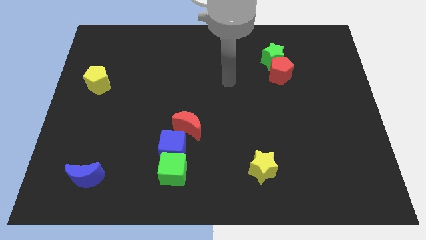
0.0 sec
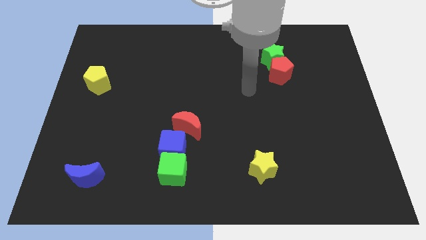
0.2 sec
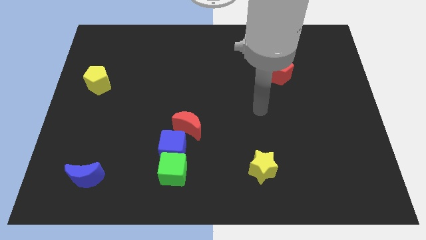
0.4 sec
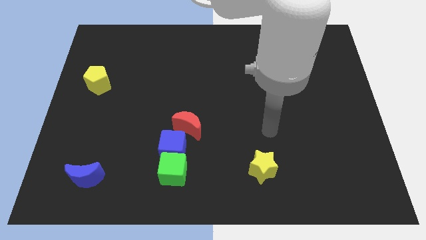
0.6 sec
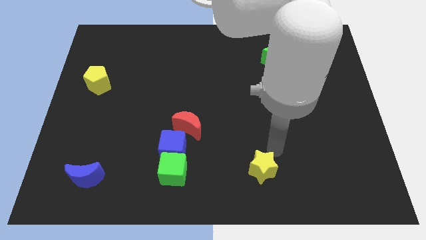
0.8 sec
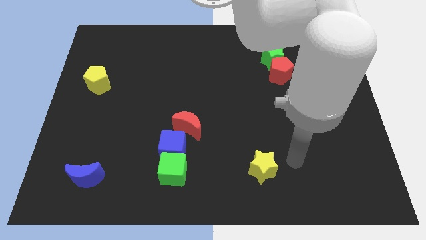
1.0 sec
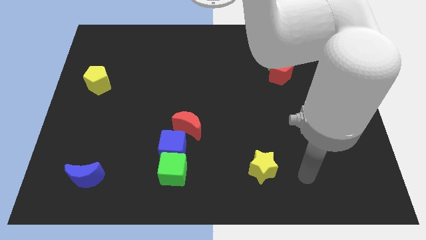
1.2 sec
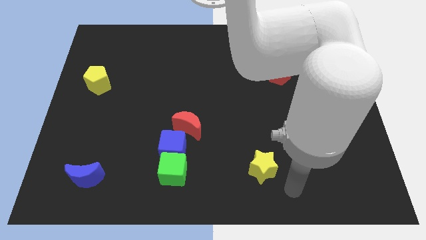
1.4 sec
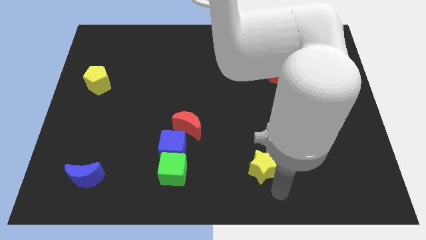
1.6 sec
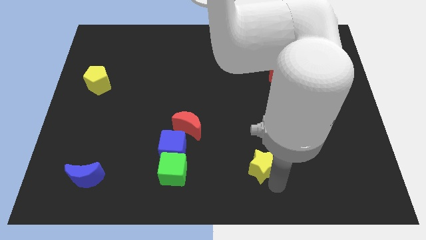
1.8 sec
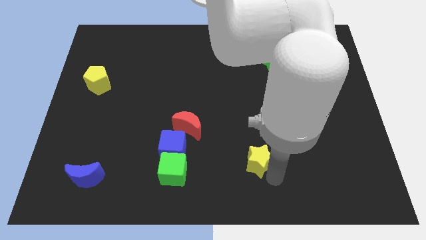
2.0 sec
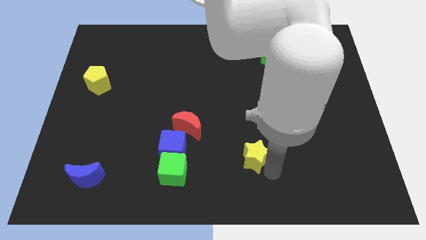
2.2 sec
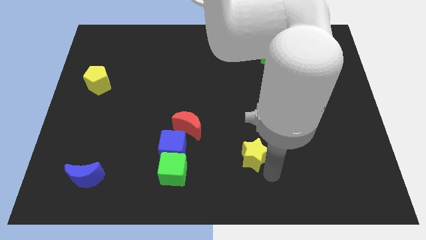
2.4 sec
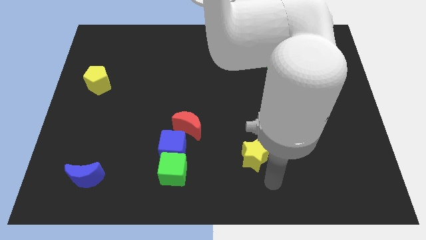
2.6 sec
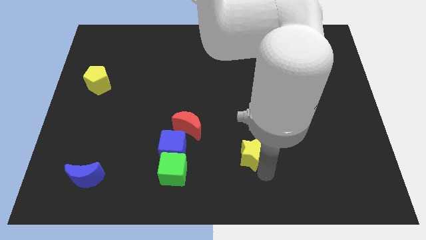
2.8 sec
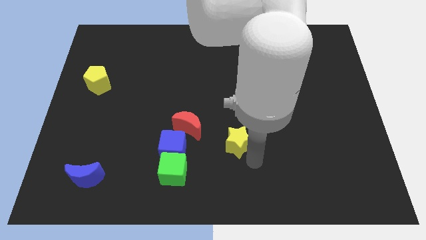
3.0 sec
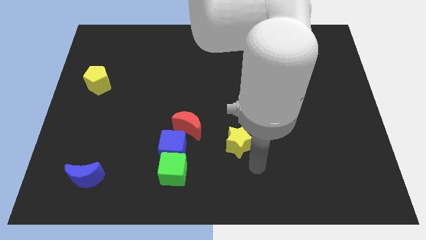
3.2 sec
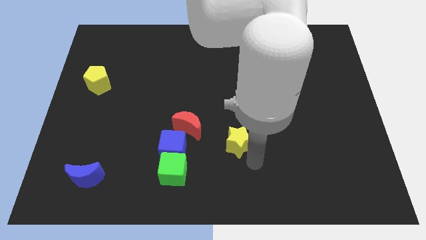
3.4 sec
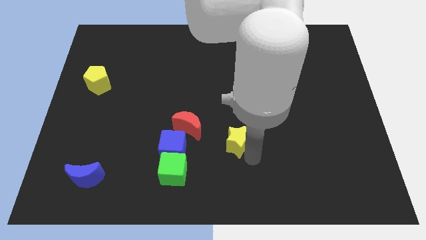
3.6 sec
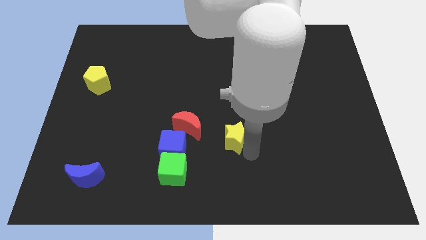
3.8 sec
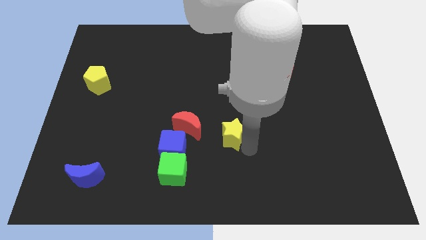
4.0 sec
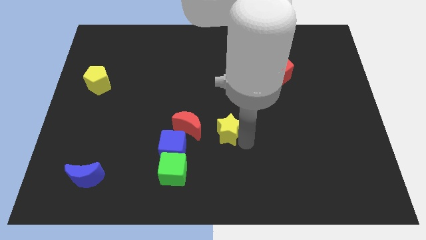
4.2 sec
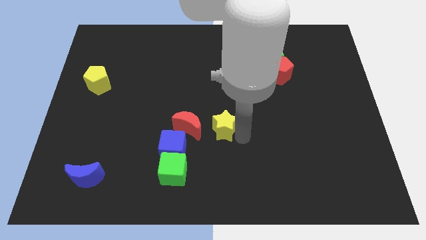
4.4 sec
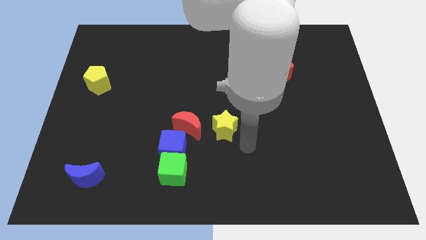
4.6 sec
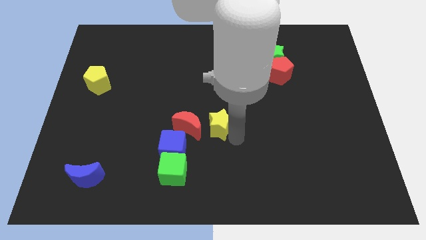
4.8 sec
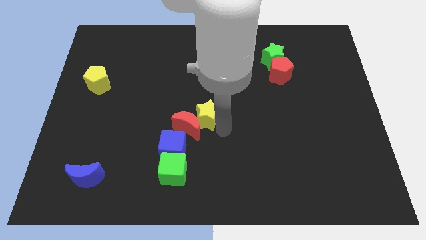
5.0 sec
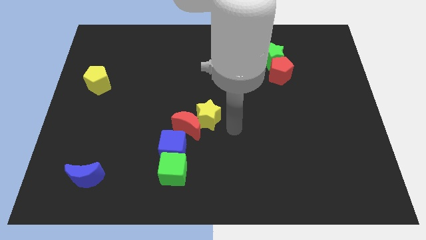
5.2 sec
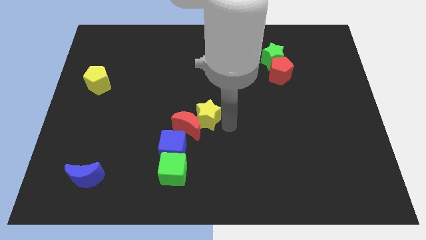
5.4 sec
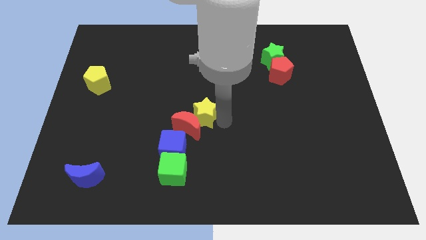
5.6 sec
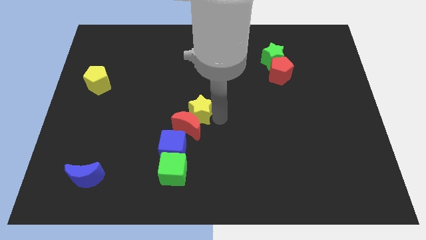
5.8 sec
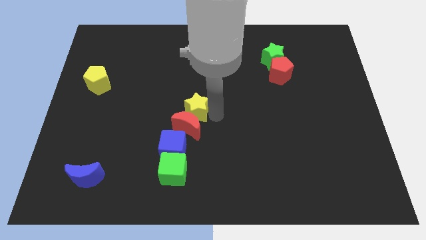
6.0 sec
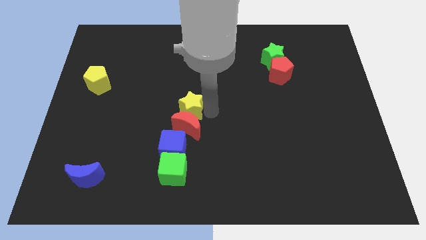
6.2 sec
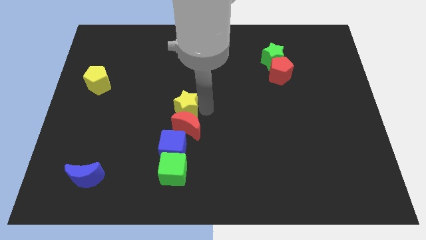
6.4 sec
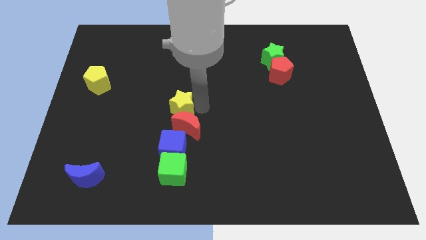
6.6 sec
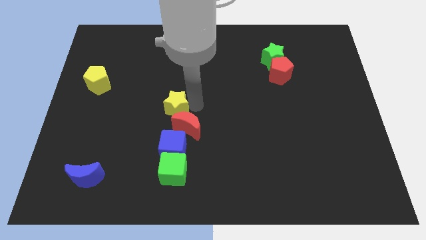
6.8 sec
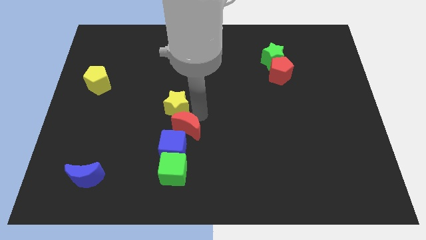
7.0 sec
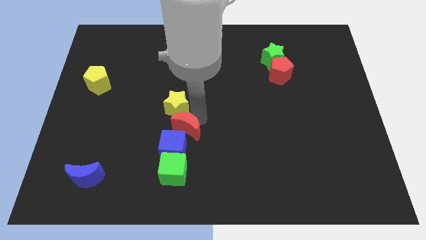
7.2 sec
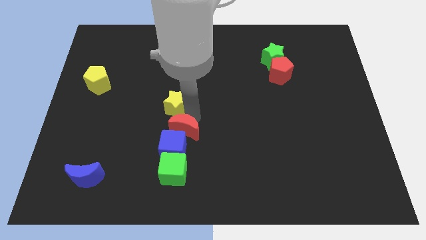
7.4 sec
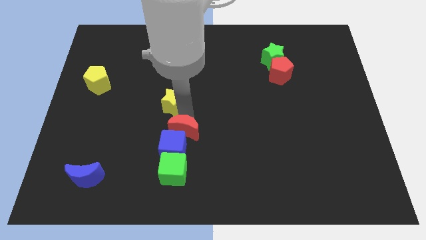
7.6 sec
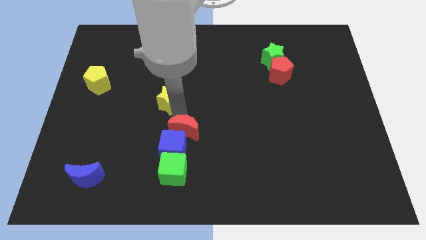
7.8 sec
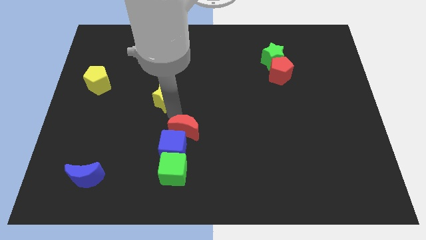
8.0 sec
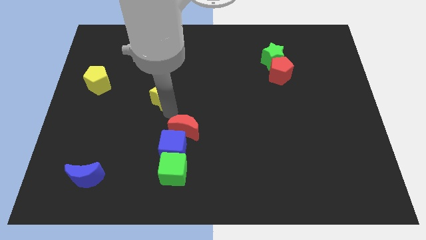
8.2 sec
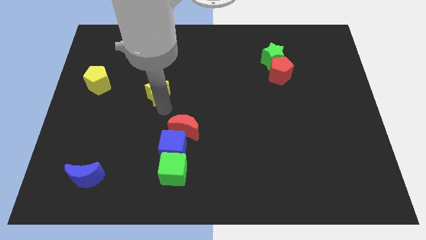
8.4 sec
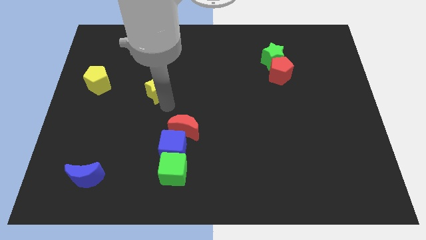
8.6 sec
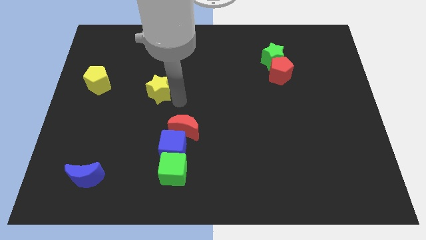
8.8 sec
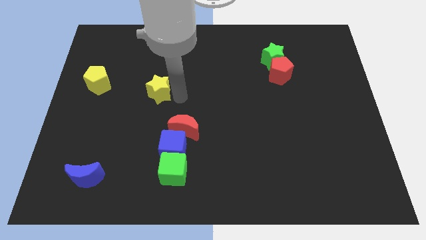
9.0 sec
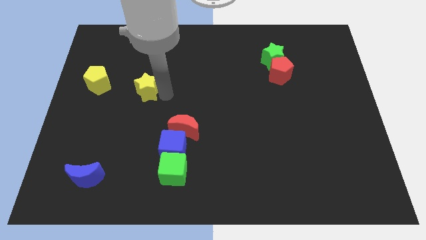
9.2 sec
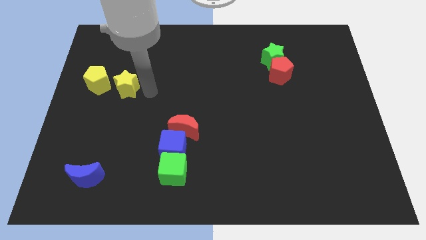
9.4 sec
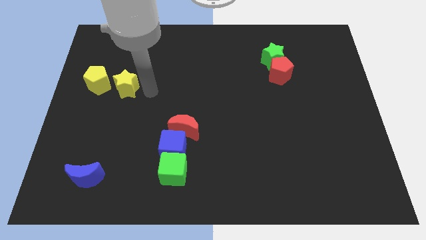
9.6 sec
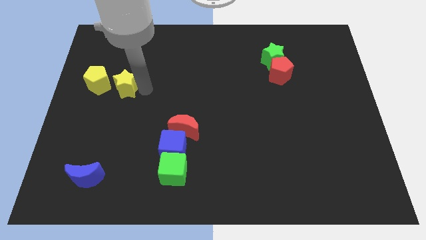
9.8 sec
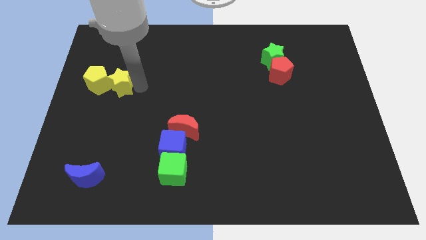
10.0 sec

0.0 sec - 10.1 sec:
slide the yellow star close to the yellow pentagon

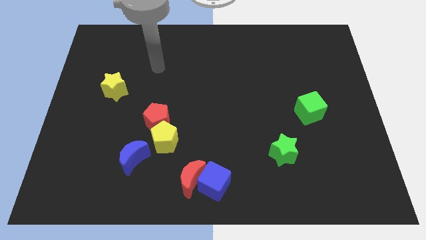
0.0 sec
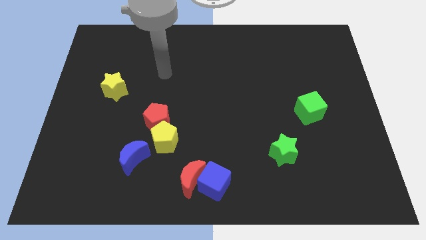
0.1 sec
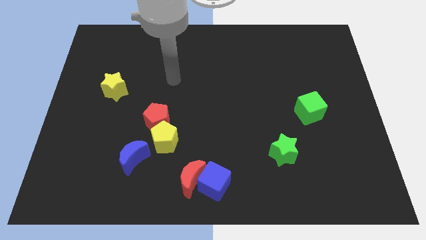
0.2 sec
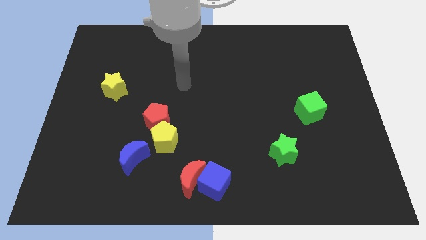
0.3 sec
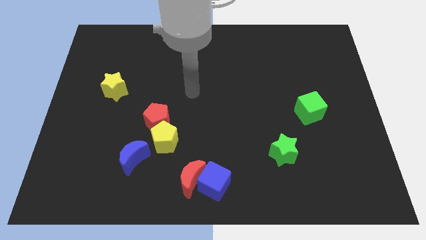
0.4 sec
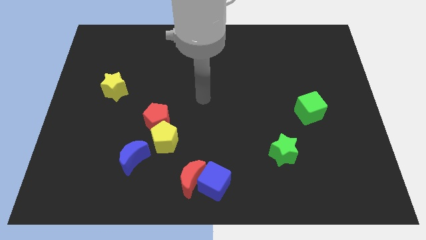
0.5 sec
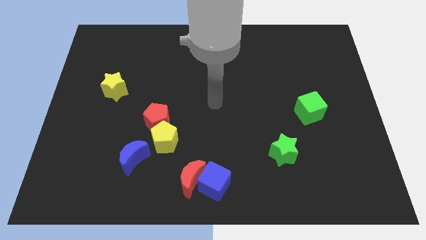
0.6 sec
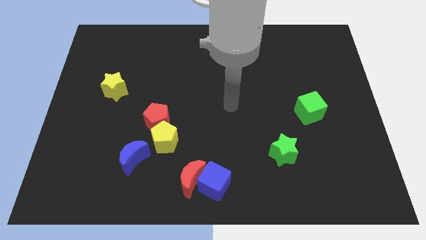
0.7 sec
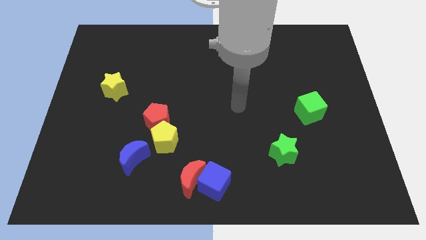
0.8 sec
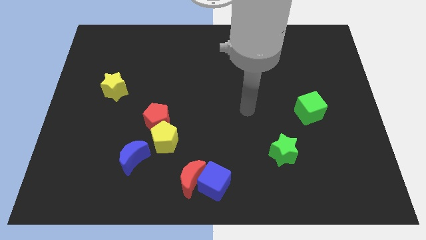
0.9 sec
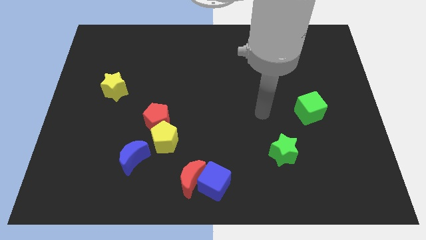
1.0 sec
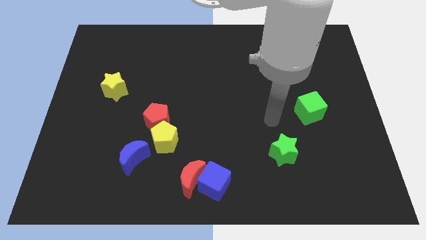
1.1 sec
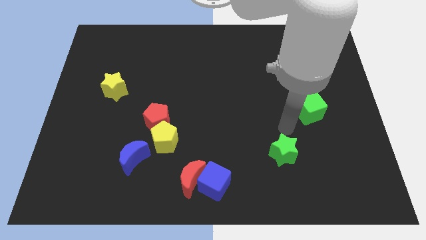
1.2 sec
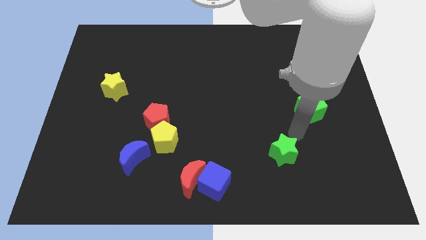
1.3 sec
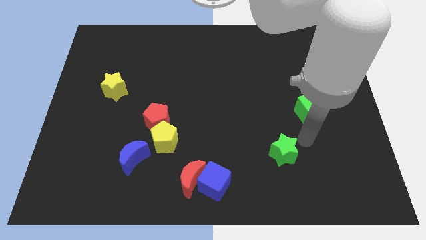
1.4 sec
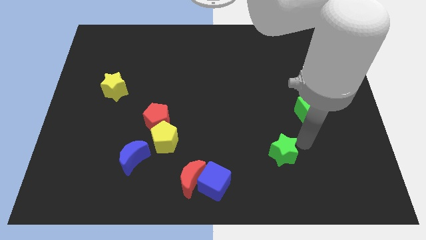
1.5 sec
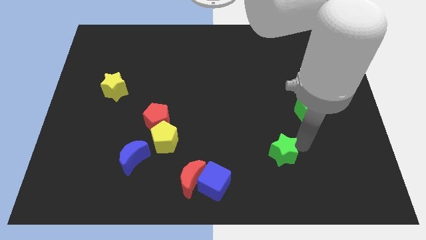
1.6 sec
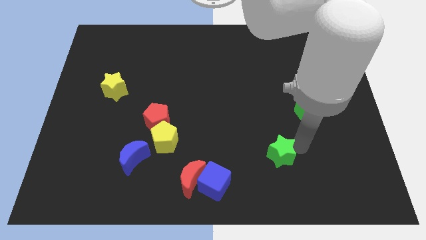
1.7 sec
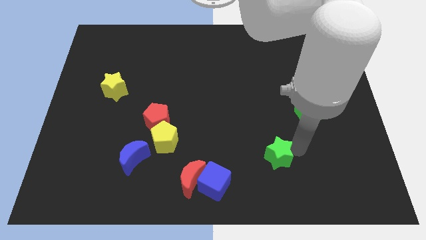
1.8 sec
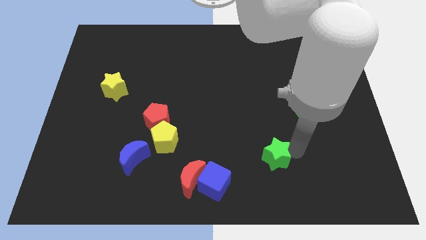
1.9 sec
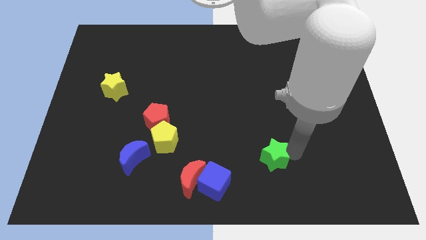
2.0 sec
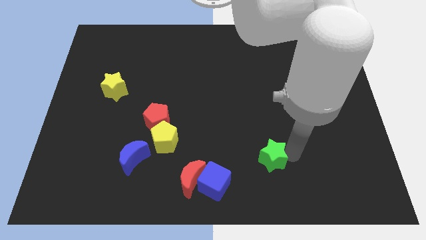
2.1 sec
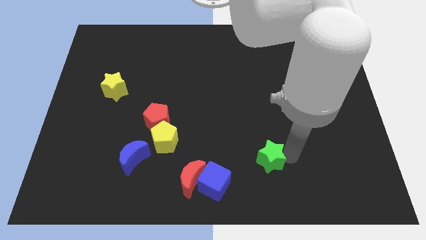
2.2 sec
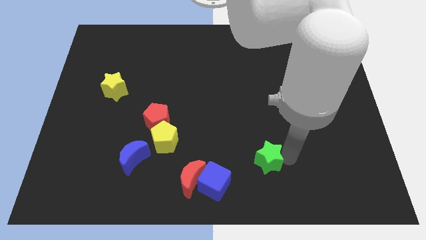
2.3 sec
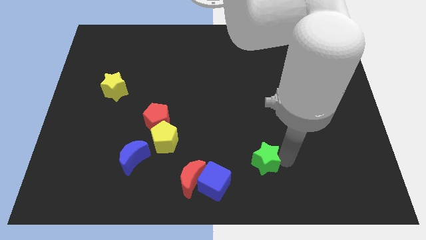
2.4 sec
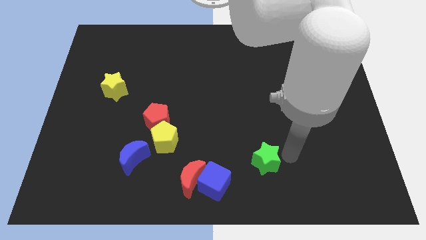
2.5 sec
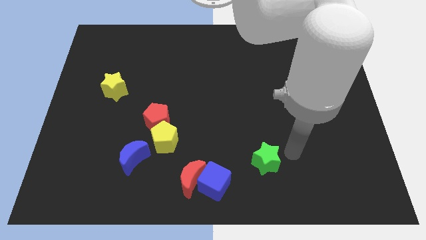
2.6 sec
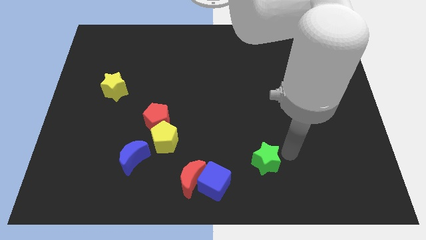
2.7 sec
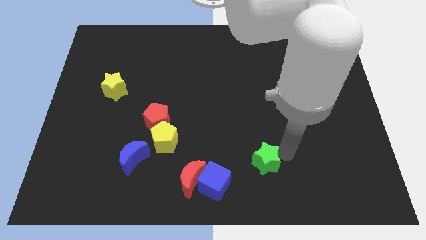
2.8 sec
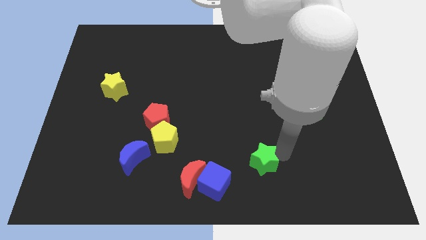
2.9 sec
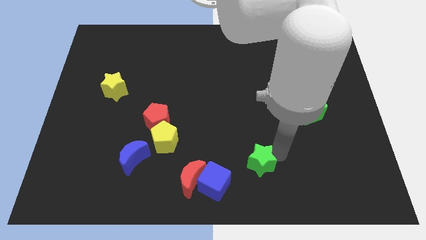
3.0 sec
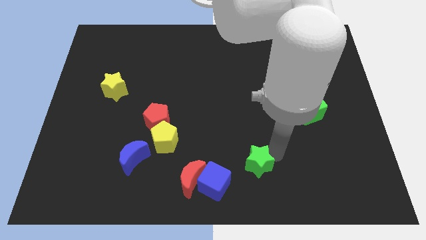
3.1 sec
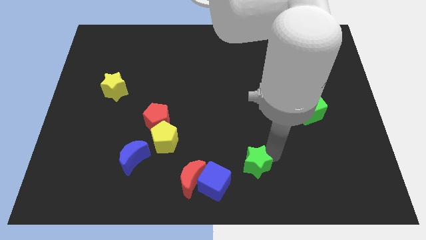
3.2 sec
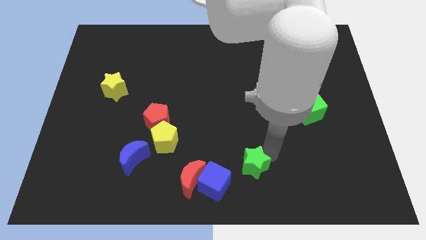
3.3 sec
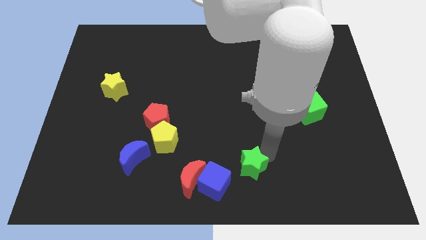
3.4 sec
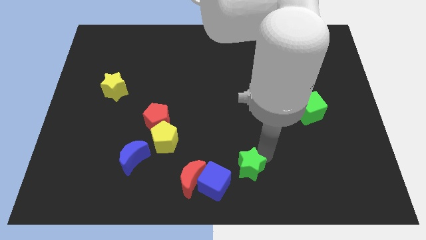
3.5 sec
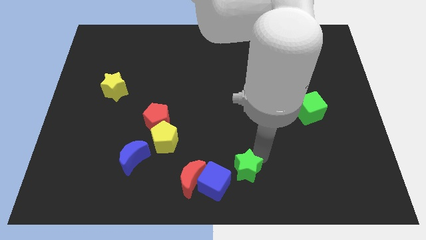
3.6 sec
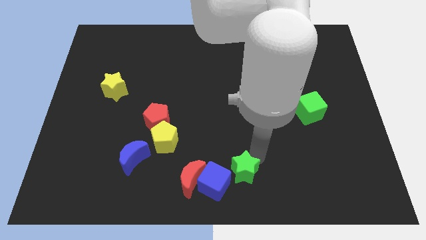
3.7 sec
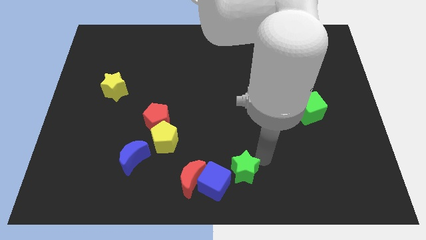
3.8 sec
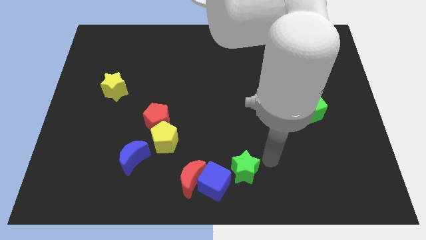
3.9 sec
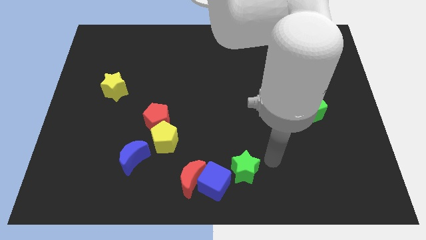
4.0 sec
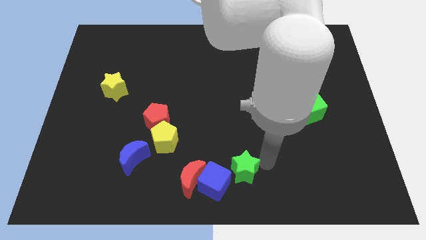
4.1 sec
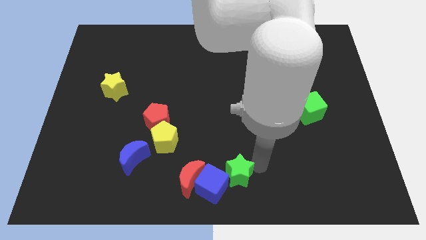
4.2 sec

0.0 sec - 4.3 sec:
move the green star next to the blue cube
